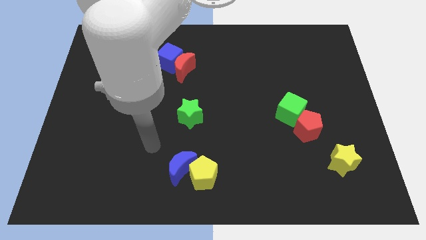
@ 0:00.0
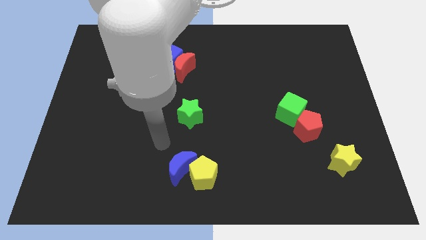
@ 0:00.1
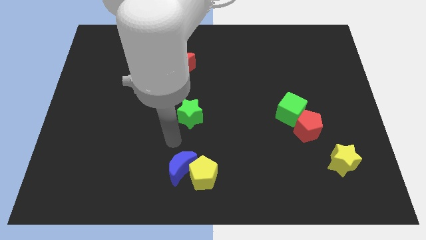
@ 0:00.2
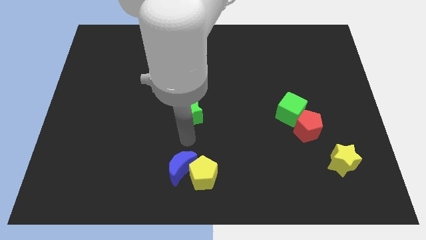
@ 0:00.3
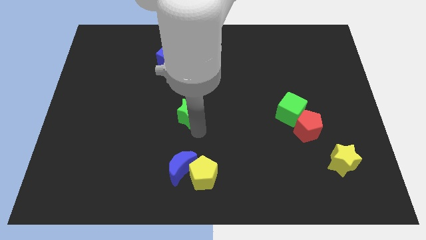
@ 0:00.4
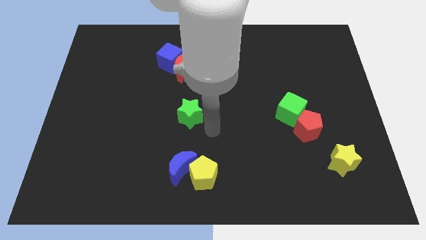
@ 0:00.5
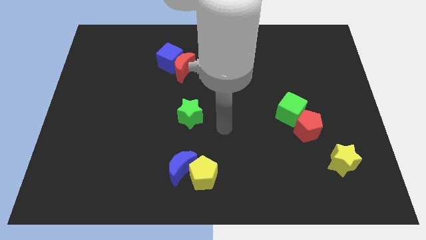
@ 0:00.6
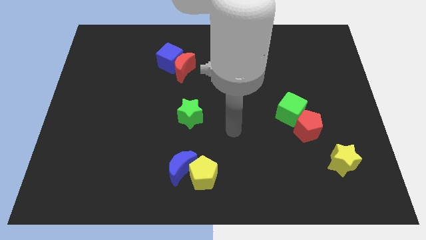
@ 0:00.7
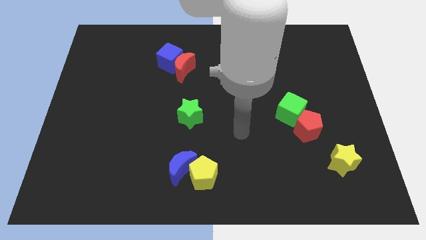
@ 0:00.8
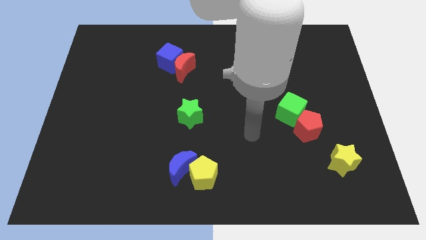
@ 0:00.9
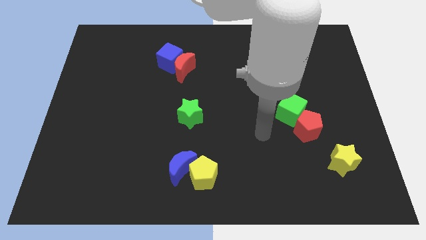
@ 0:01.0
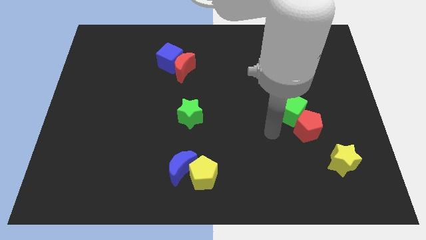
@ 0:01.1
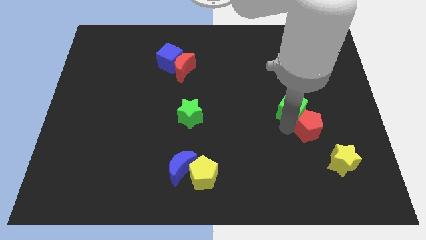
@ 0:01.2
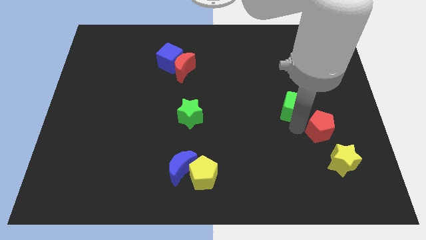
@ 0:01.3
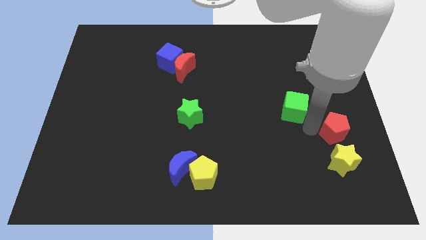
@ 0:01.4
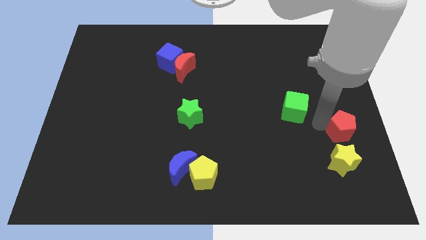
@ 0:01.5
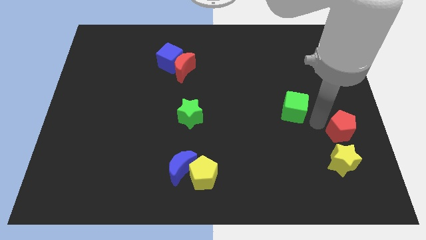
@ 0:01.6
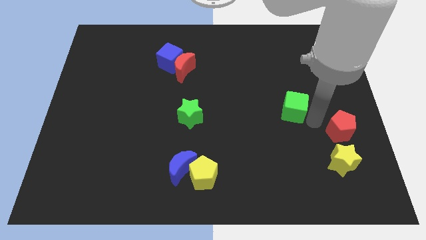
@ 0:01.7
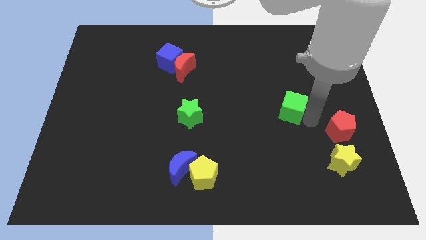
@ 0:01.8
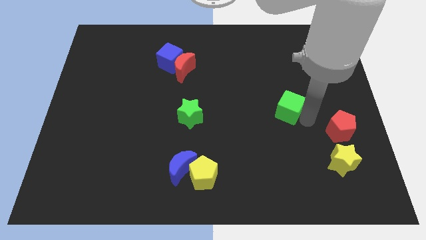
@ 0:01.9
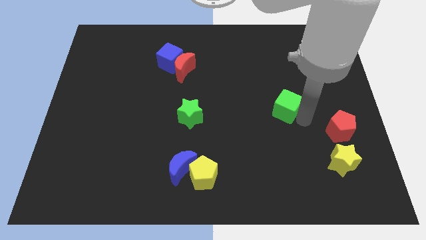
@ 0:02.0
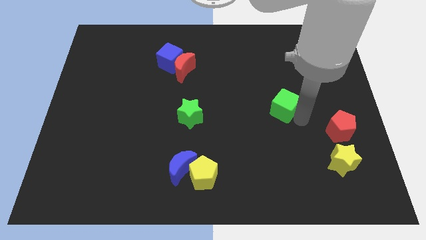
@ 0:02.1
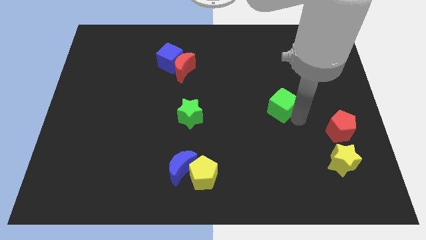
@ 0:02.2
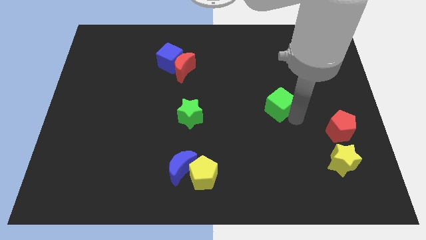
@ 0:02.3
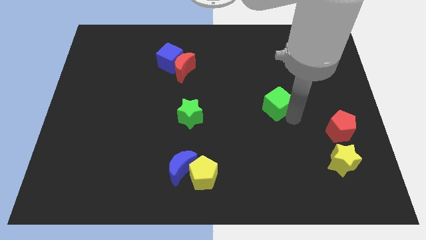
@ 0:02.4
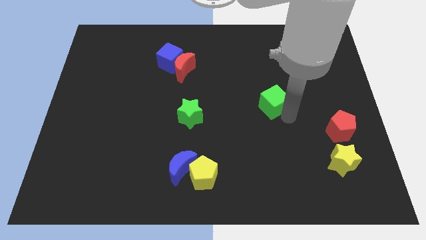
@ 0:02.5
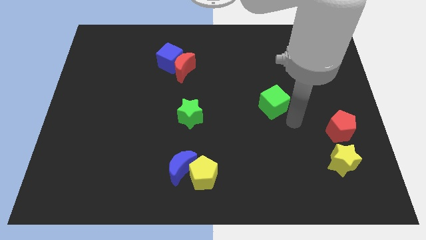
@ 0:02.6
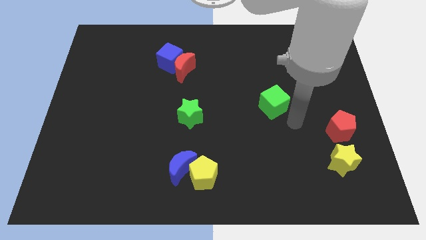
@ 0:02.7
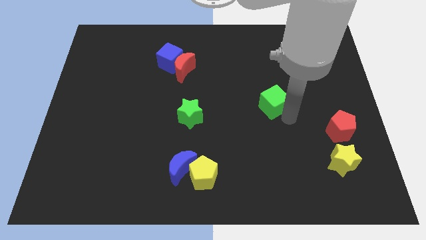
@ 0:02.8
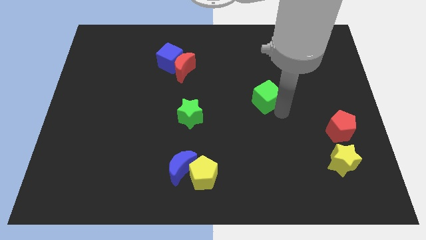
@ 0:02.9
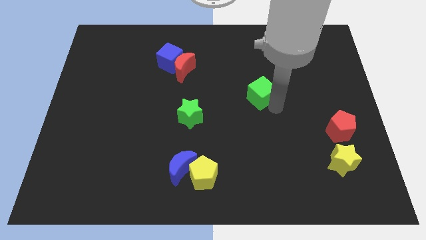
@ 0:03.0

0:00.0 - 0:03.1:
move the green cube somewhat upwards and to the left diagonally

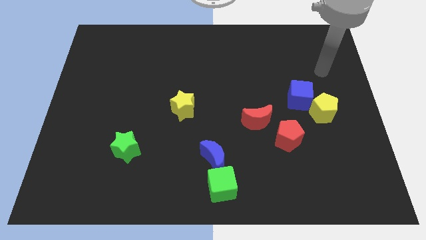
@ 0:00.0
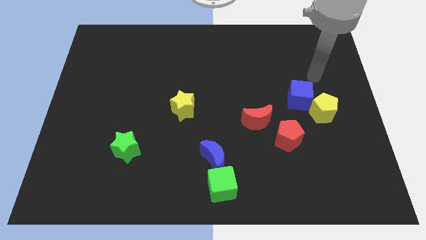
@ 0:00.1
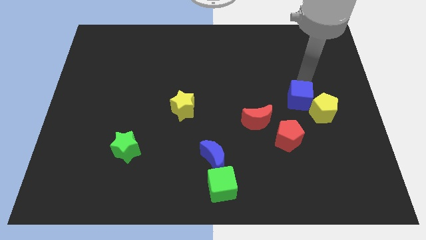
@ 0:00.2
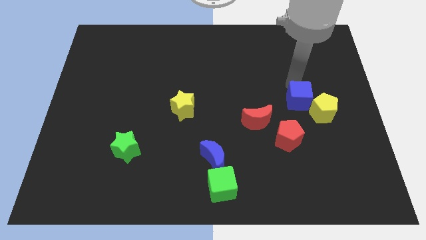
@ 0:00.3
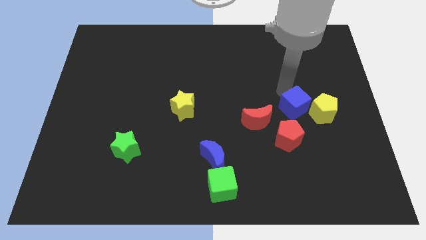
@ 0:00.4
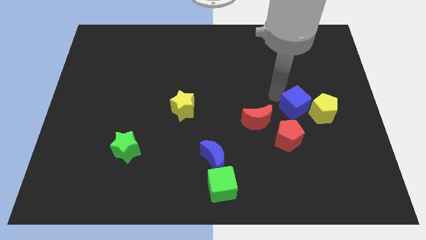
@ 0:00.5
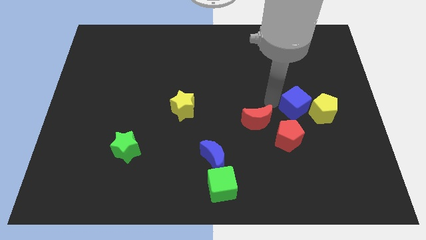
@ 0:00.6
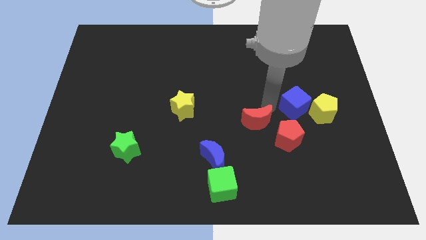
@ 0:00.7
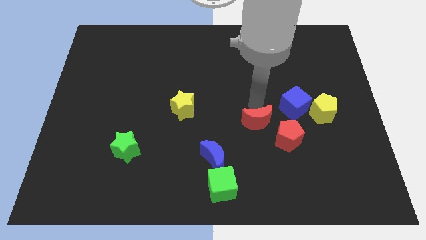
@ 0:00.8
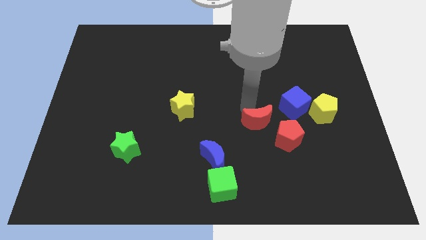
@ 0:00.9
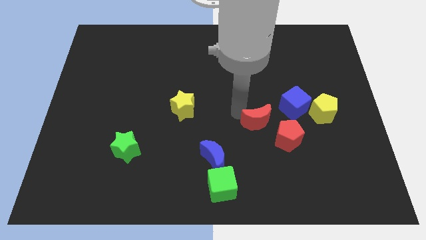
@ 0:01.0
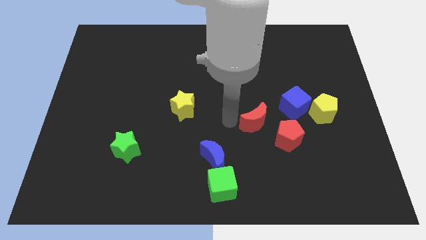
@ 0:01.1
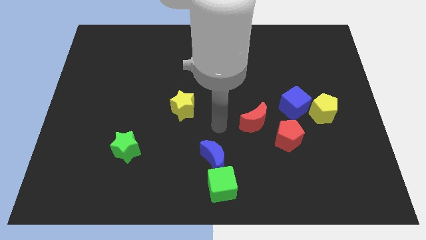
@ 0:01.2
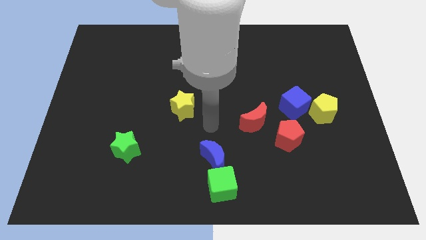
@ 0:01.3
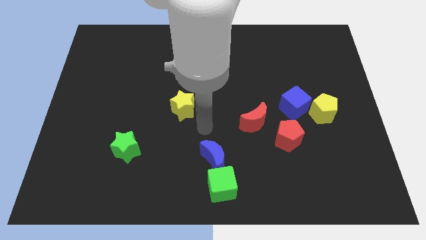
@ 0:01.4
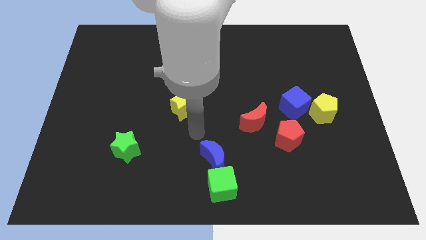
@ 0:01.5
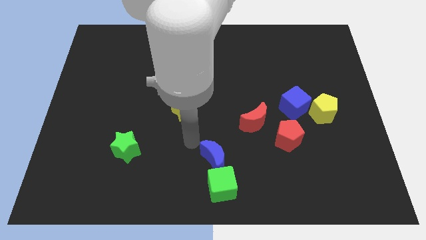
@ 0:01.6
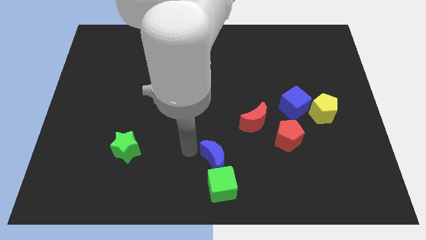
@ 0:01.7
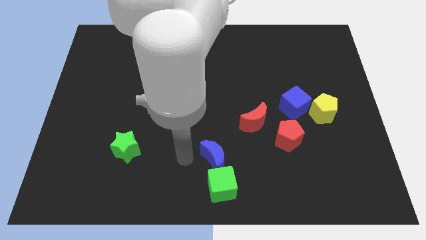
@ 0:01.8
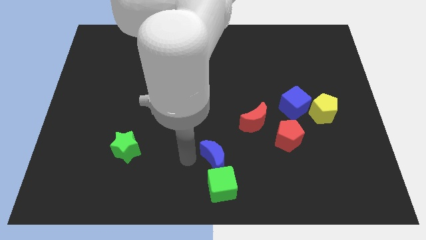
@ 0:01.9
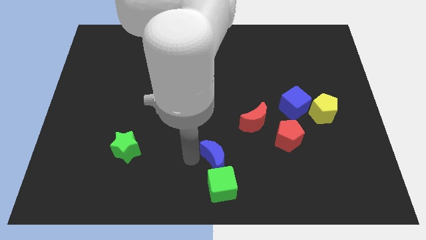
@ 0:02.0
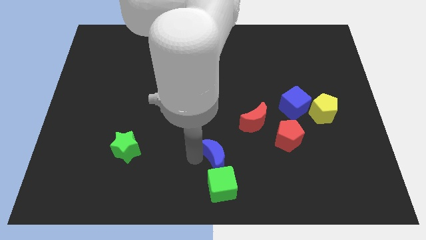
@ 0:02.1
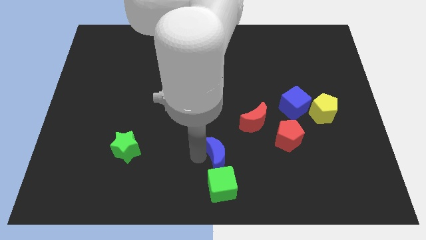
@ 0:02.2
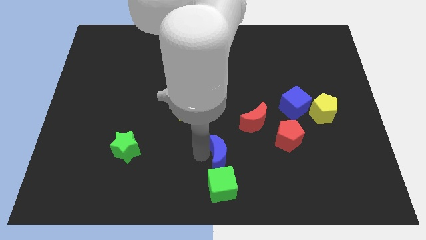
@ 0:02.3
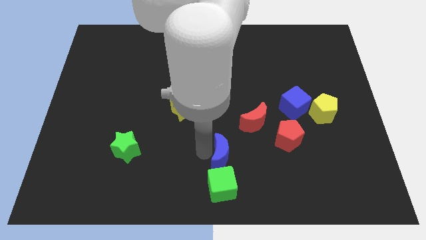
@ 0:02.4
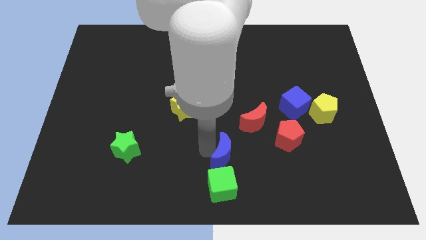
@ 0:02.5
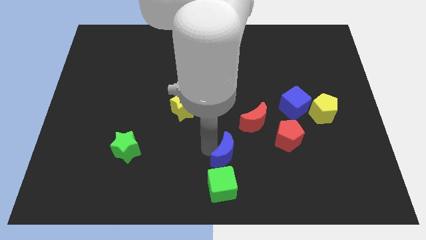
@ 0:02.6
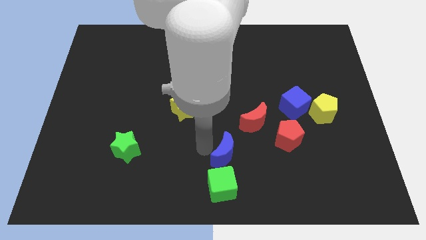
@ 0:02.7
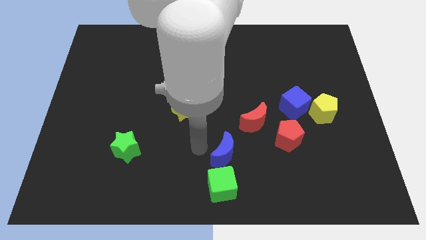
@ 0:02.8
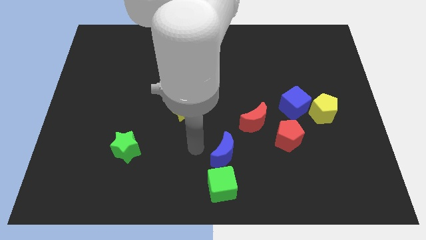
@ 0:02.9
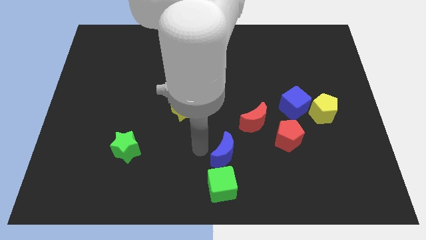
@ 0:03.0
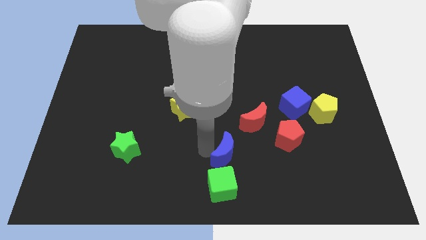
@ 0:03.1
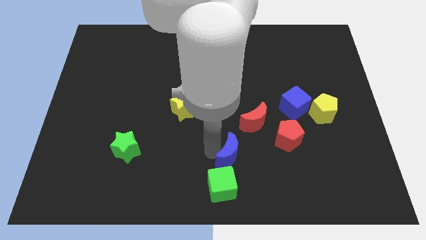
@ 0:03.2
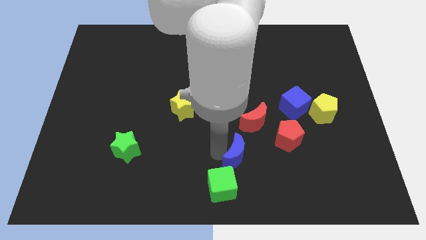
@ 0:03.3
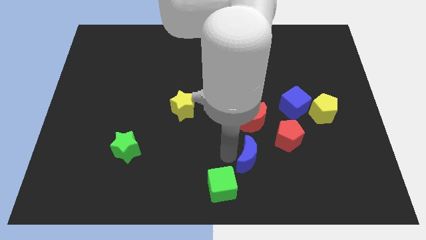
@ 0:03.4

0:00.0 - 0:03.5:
move the blue moon a bit right

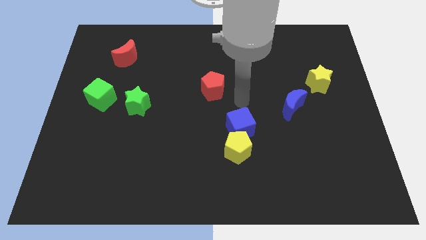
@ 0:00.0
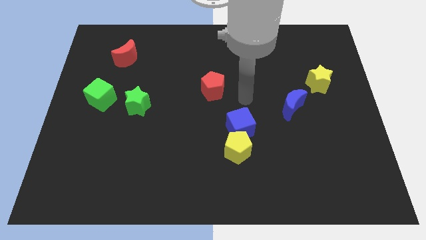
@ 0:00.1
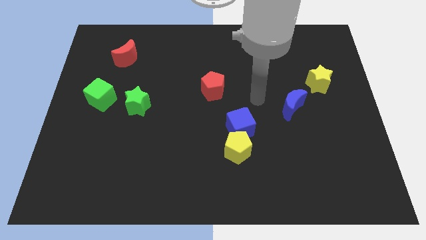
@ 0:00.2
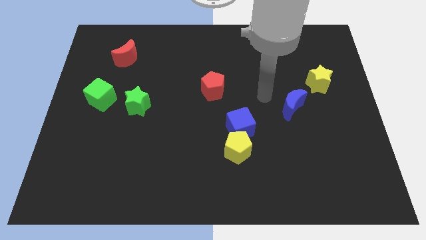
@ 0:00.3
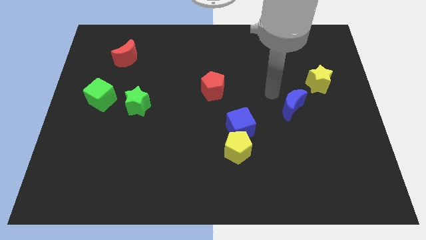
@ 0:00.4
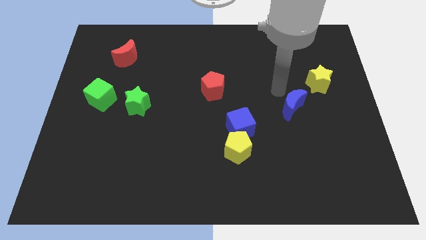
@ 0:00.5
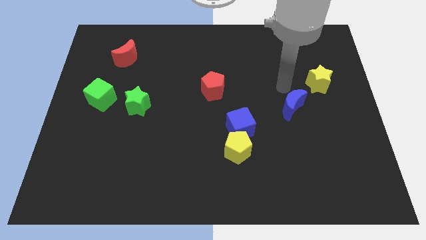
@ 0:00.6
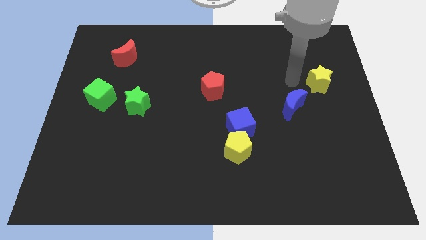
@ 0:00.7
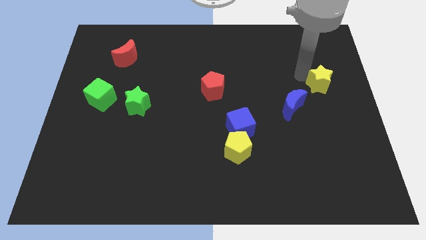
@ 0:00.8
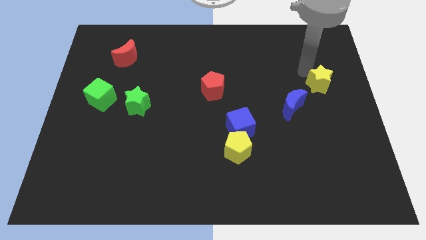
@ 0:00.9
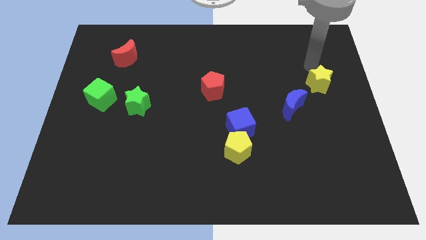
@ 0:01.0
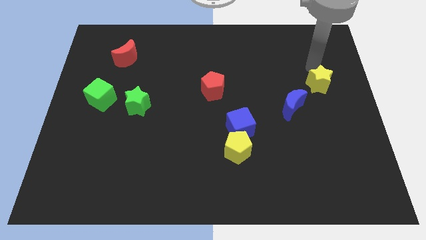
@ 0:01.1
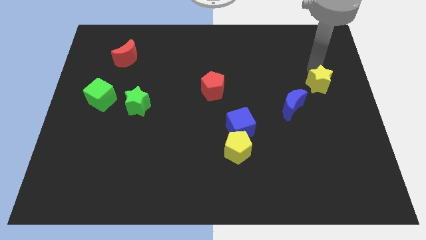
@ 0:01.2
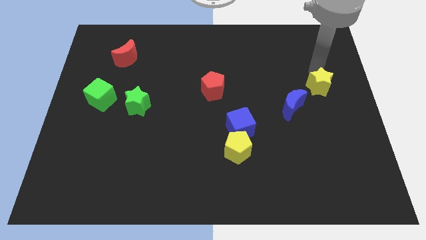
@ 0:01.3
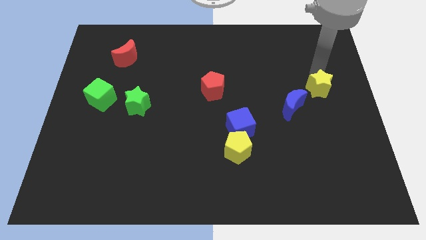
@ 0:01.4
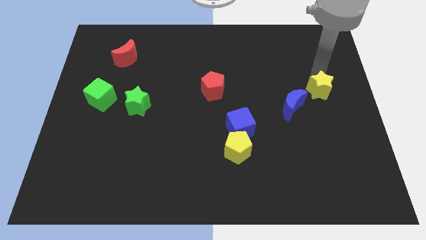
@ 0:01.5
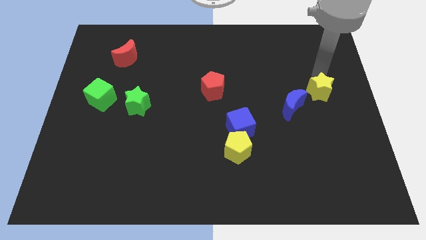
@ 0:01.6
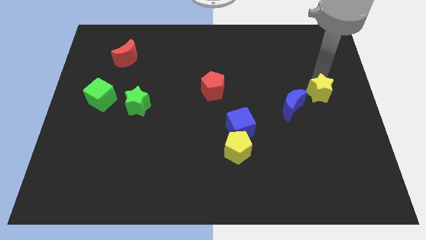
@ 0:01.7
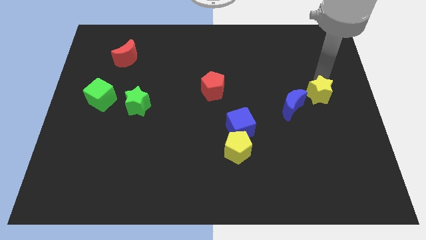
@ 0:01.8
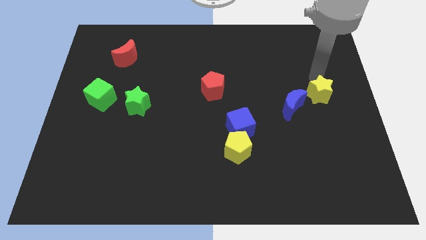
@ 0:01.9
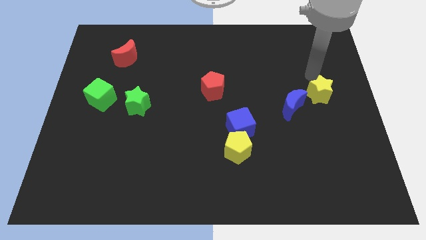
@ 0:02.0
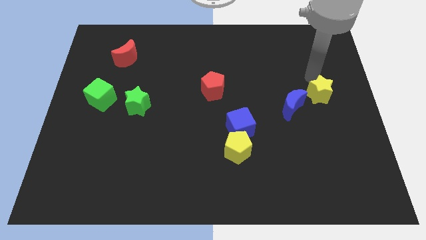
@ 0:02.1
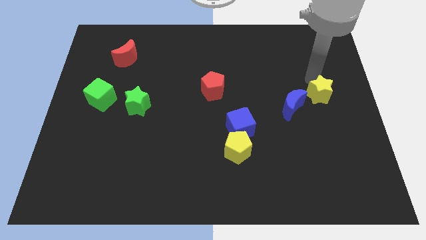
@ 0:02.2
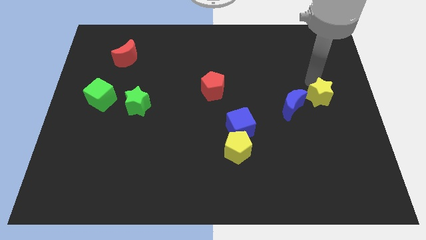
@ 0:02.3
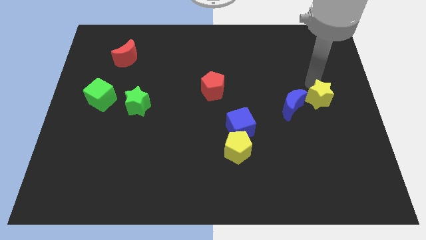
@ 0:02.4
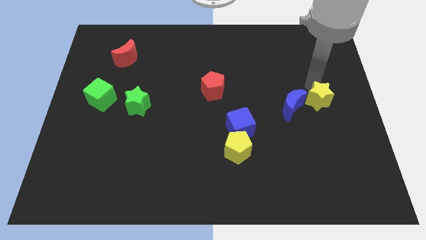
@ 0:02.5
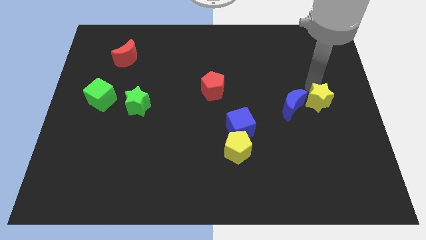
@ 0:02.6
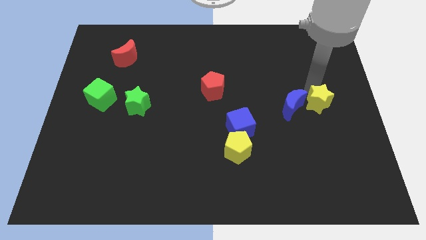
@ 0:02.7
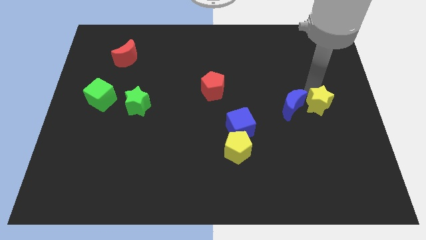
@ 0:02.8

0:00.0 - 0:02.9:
move the yellow star downwards a little bit
